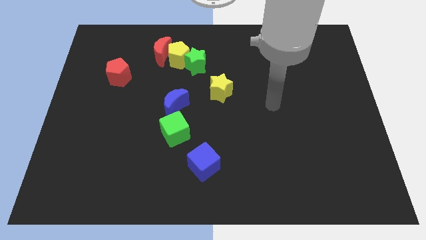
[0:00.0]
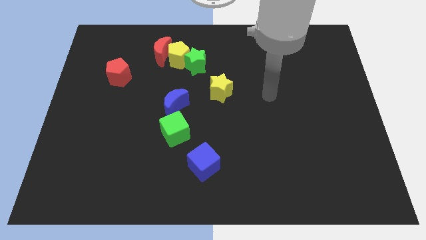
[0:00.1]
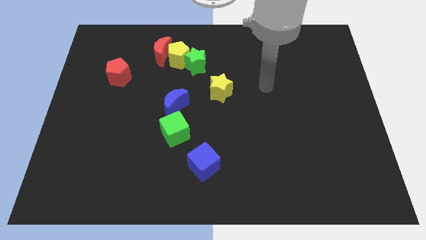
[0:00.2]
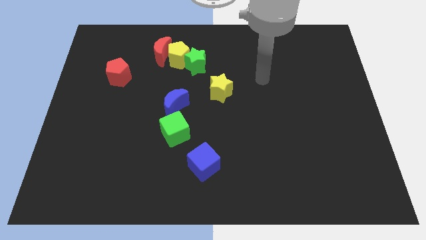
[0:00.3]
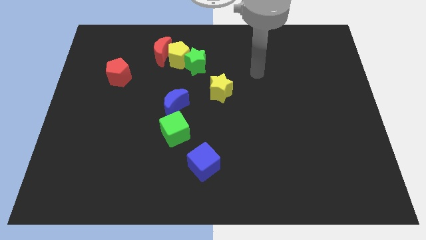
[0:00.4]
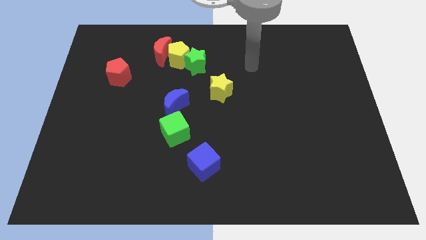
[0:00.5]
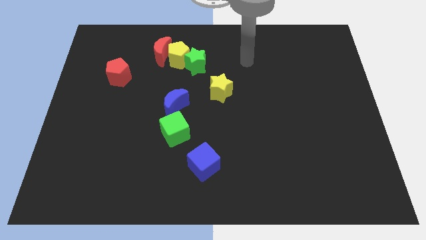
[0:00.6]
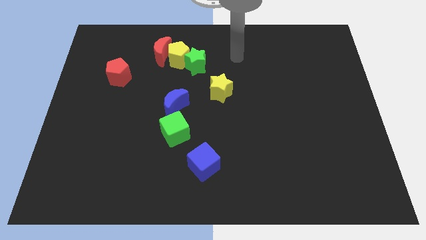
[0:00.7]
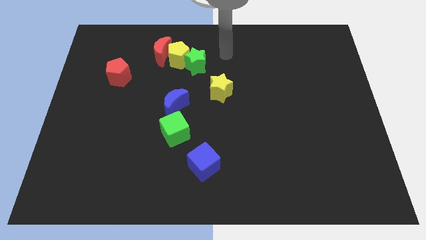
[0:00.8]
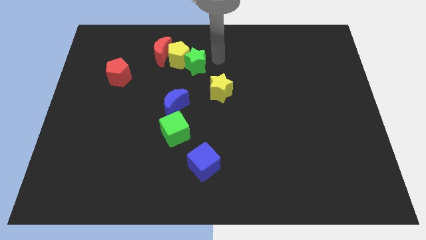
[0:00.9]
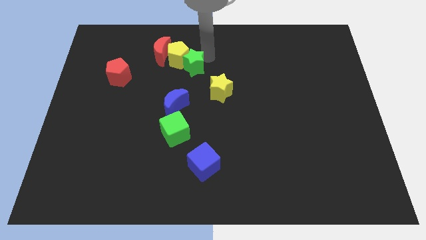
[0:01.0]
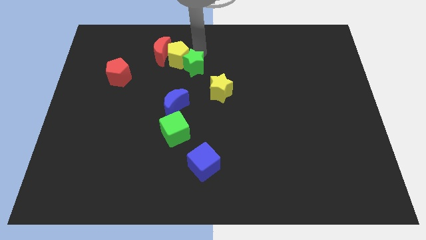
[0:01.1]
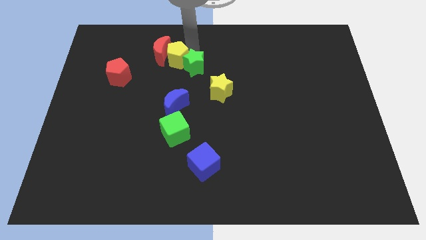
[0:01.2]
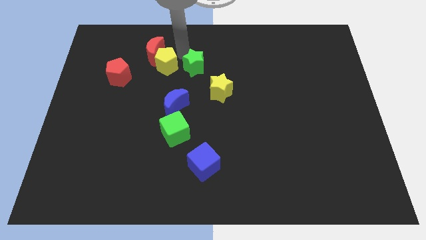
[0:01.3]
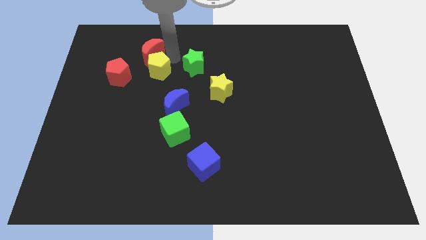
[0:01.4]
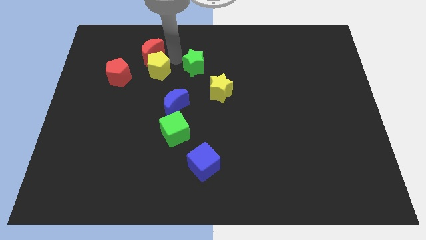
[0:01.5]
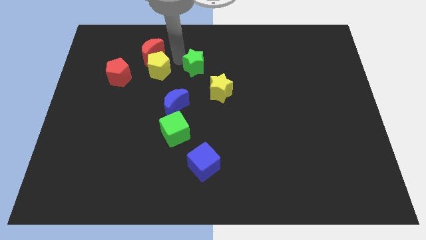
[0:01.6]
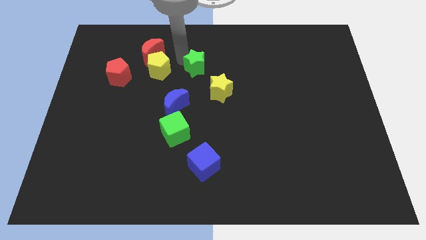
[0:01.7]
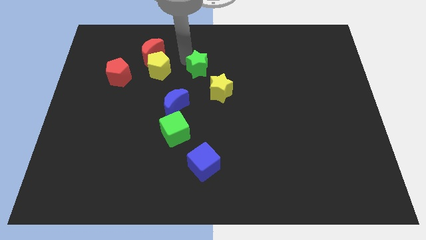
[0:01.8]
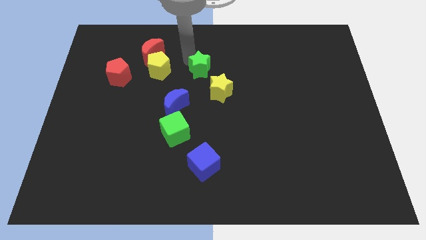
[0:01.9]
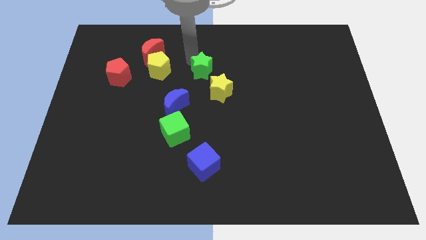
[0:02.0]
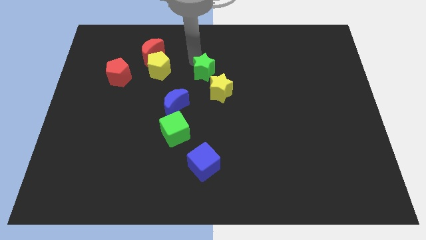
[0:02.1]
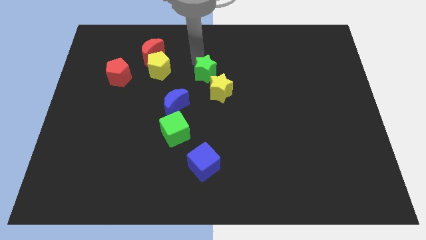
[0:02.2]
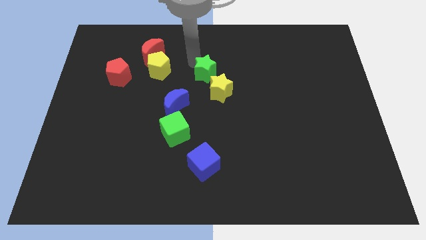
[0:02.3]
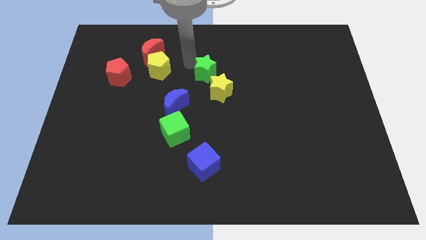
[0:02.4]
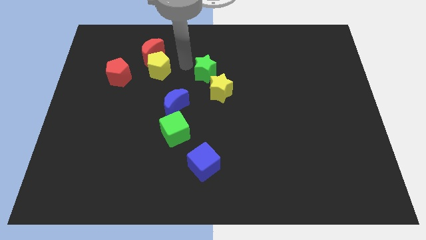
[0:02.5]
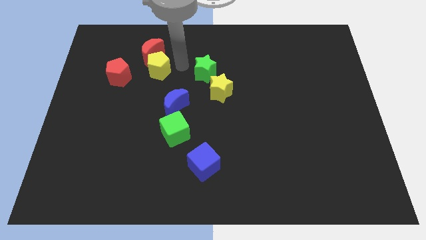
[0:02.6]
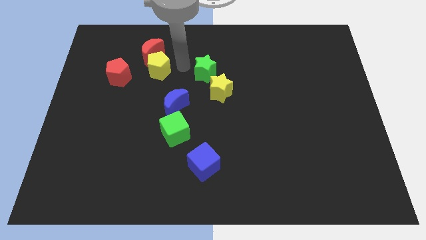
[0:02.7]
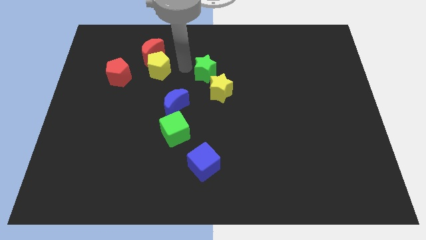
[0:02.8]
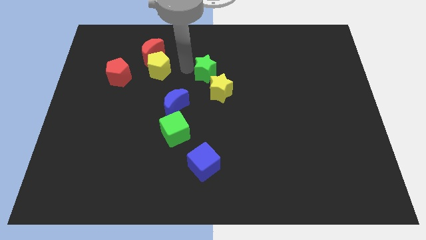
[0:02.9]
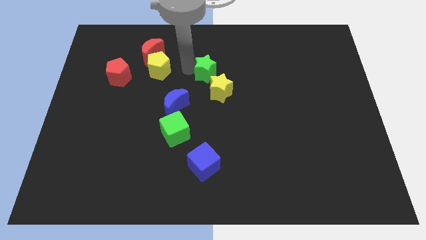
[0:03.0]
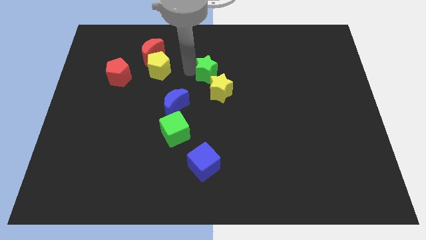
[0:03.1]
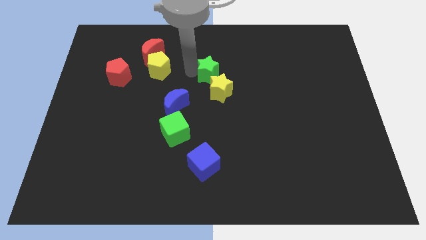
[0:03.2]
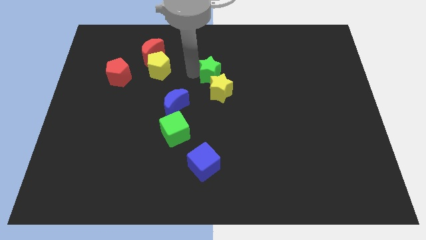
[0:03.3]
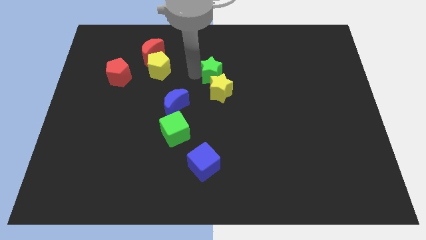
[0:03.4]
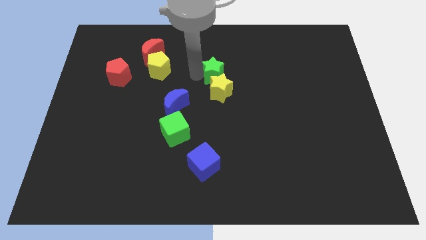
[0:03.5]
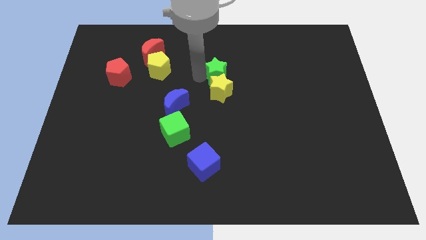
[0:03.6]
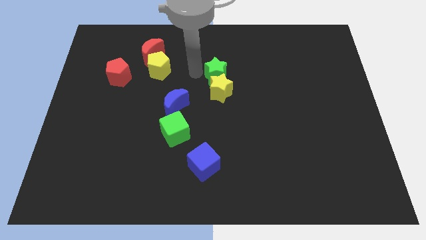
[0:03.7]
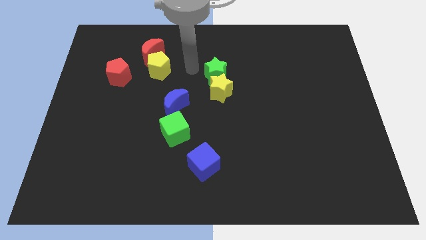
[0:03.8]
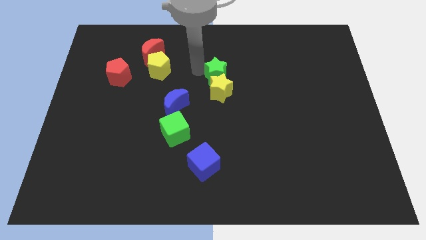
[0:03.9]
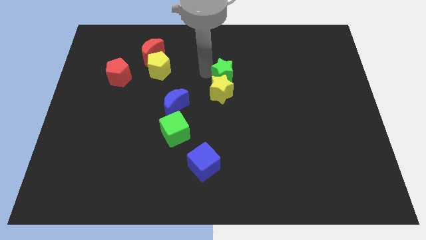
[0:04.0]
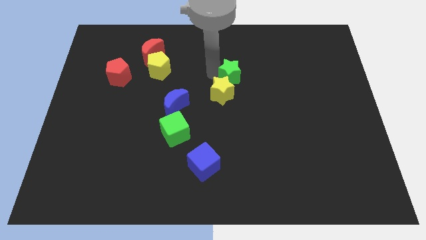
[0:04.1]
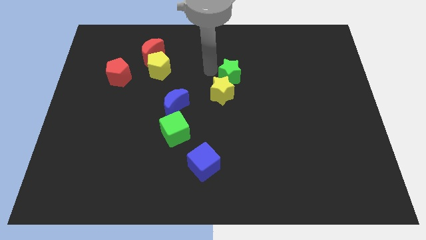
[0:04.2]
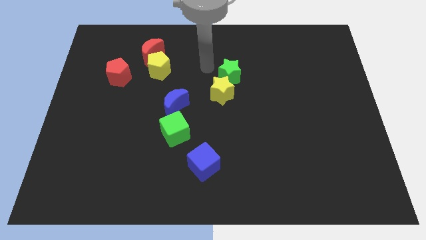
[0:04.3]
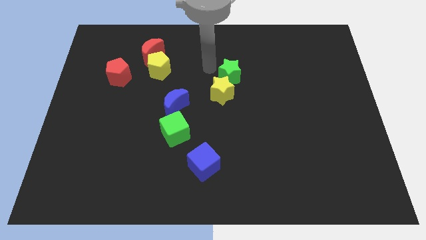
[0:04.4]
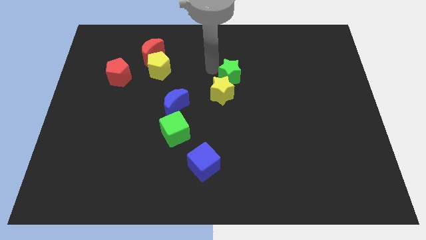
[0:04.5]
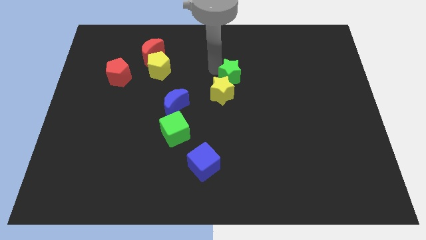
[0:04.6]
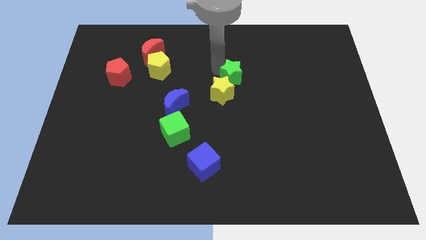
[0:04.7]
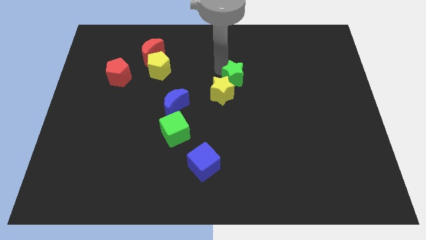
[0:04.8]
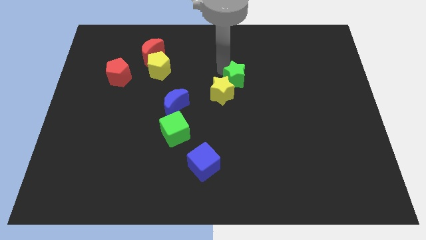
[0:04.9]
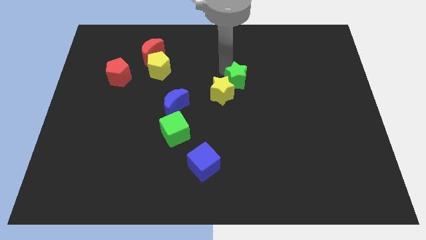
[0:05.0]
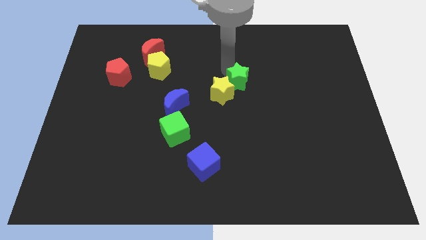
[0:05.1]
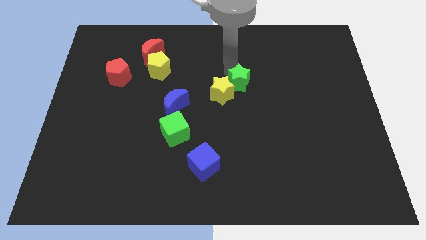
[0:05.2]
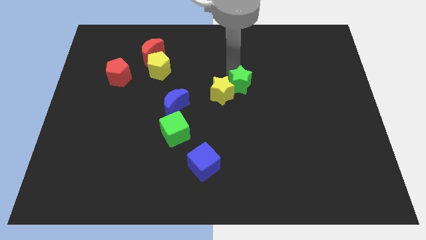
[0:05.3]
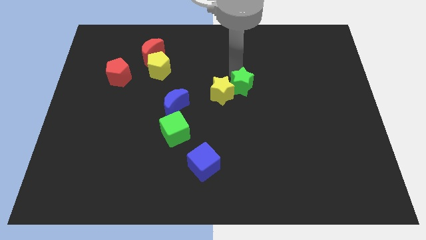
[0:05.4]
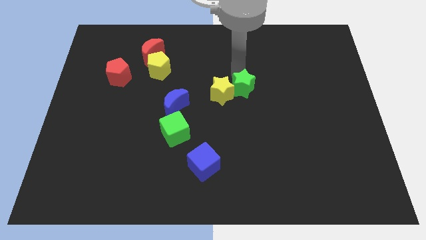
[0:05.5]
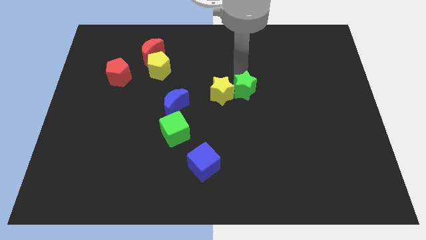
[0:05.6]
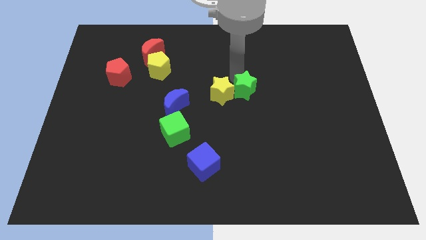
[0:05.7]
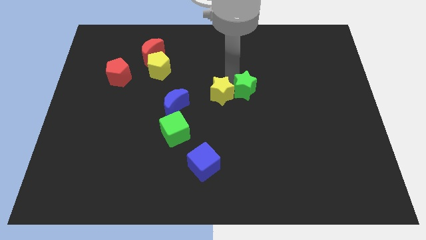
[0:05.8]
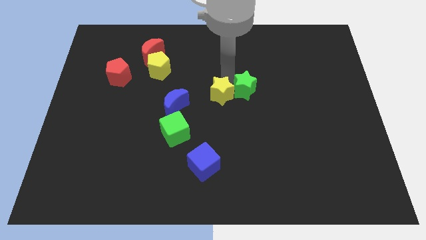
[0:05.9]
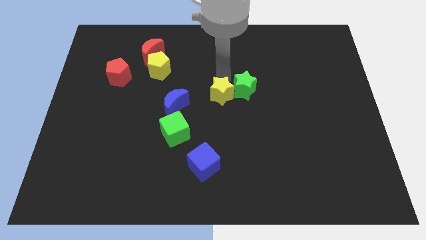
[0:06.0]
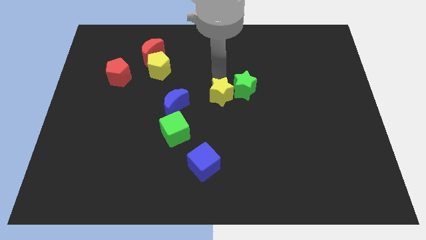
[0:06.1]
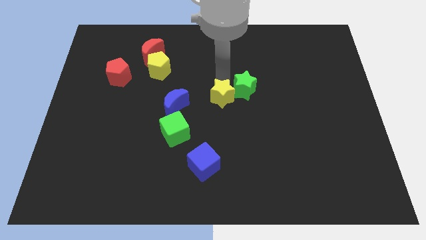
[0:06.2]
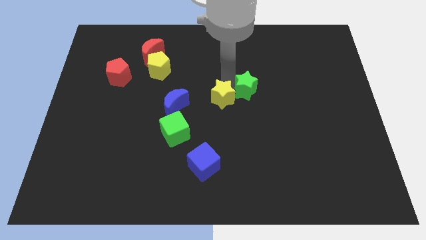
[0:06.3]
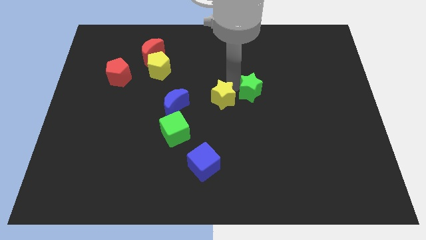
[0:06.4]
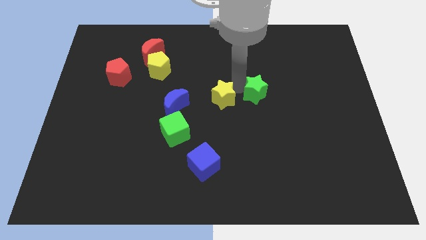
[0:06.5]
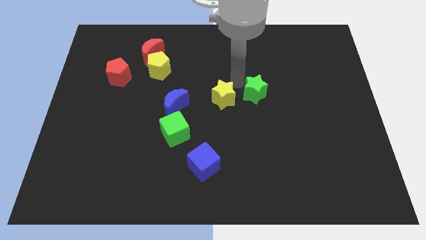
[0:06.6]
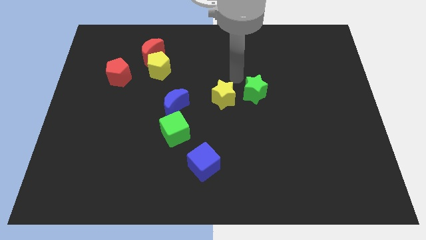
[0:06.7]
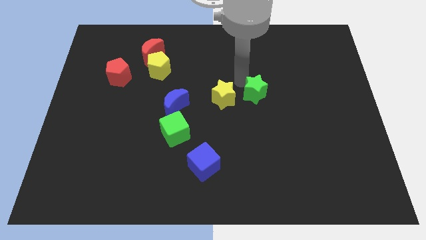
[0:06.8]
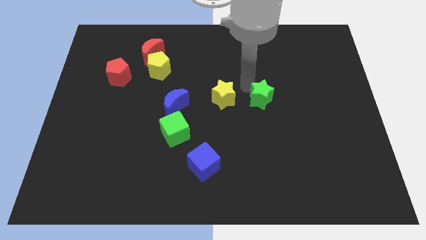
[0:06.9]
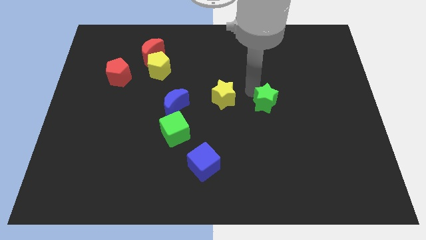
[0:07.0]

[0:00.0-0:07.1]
move the green star diagonally down and right

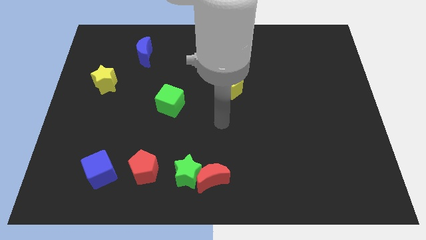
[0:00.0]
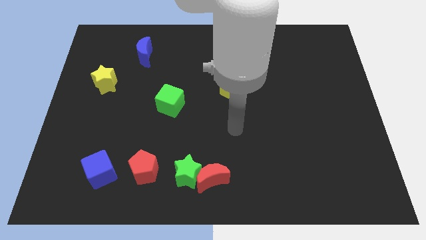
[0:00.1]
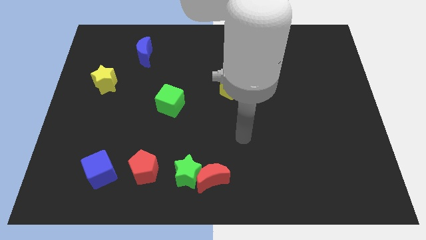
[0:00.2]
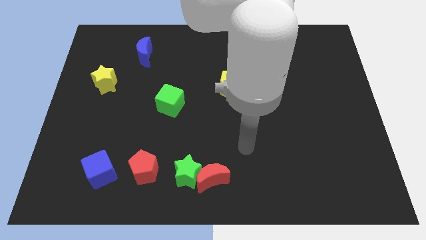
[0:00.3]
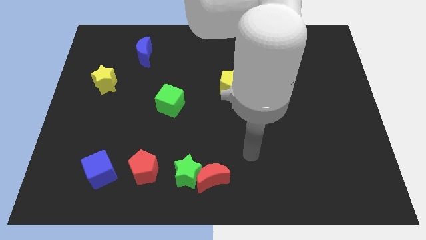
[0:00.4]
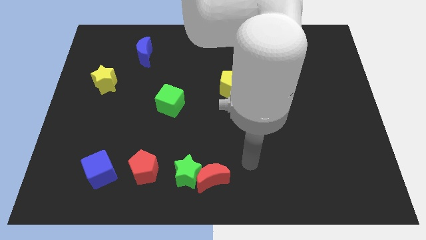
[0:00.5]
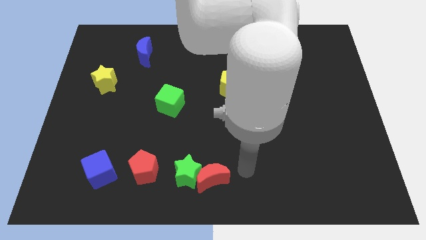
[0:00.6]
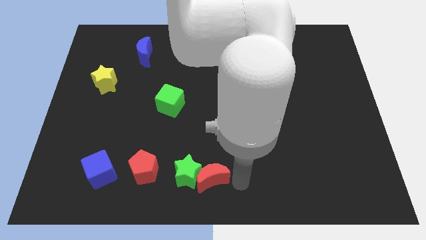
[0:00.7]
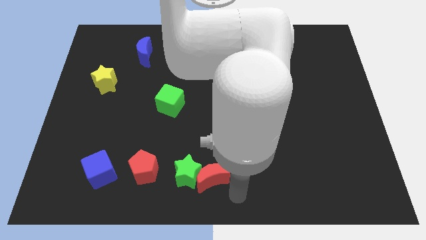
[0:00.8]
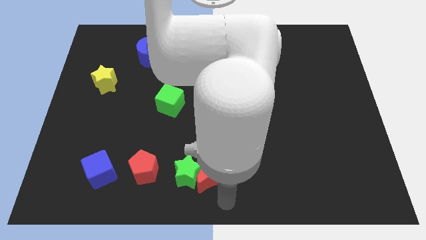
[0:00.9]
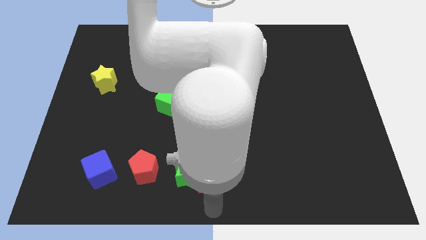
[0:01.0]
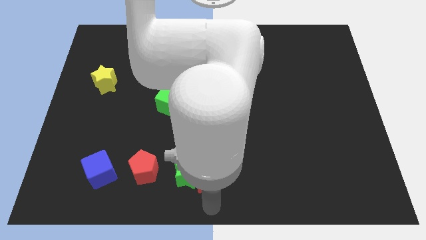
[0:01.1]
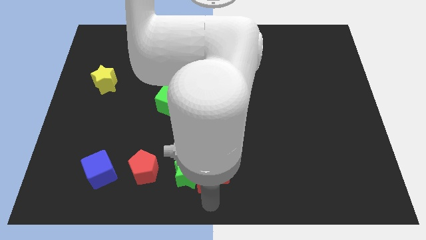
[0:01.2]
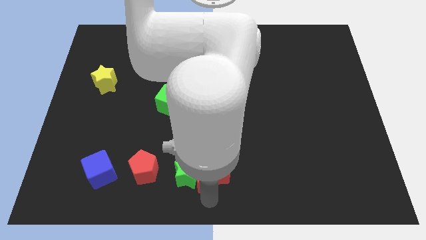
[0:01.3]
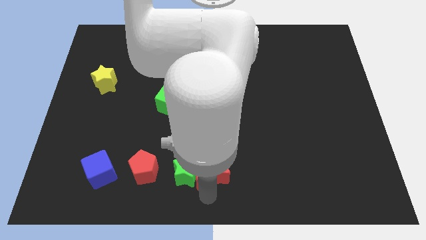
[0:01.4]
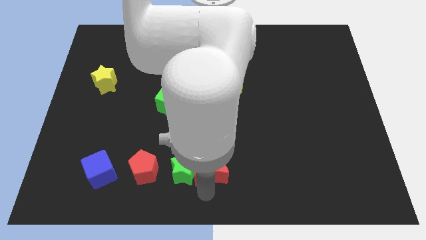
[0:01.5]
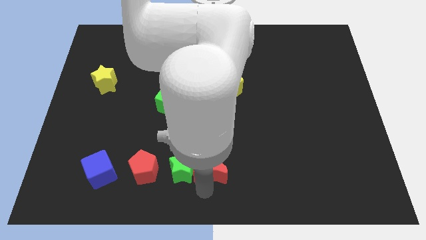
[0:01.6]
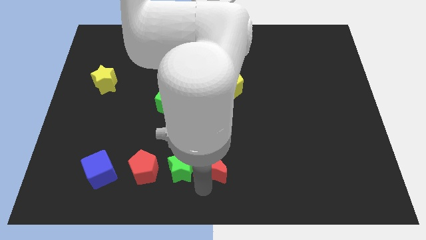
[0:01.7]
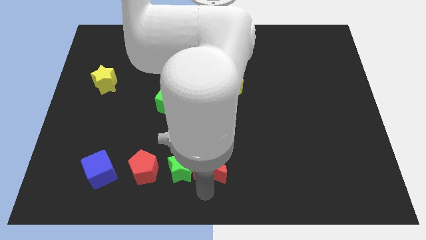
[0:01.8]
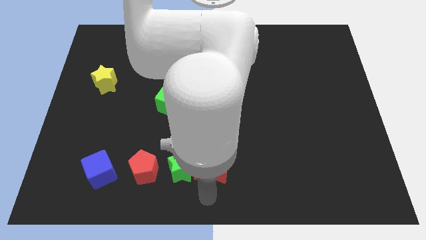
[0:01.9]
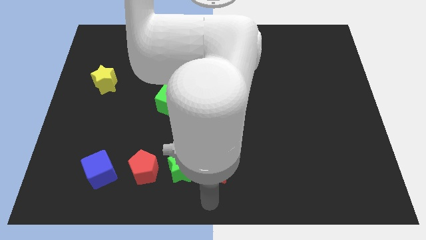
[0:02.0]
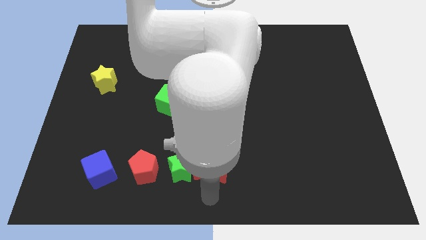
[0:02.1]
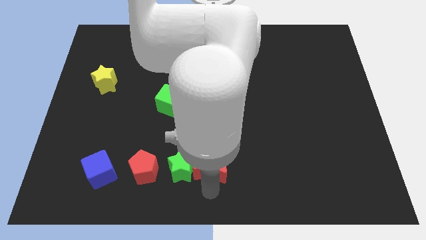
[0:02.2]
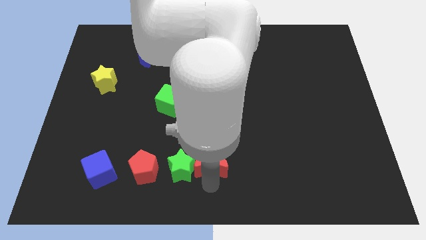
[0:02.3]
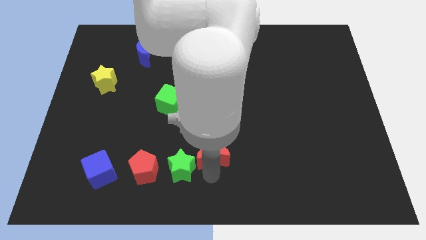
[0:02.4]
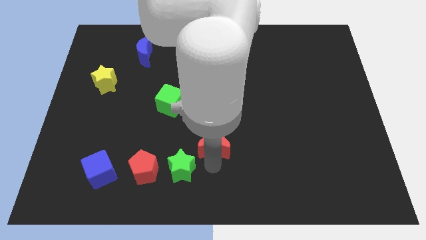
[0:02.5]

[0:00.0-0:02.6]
slightly move the red moon upwards
